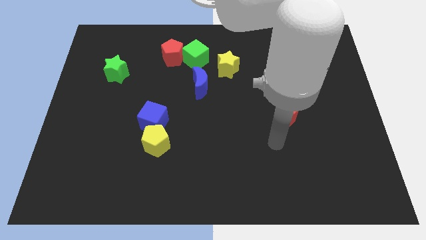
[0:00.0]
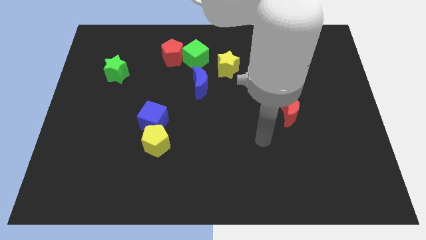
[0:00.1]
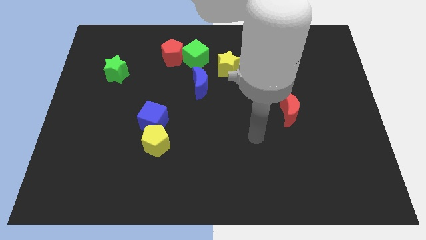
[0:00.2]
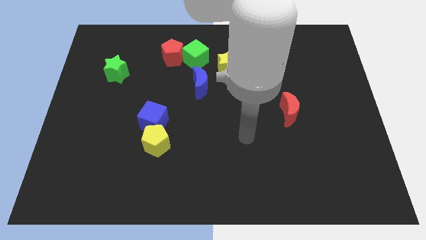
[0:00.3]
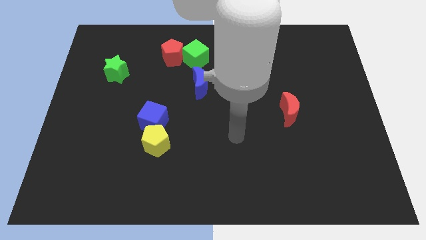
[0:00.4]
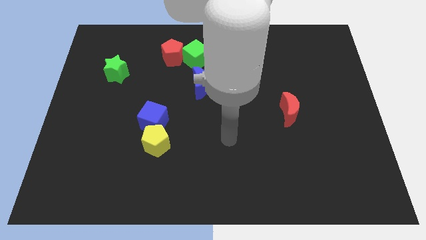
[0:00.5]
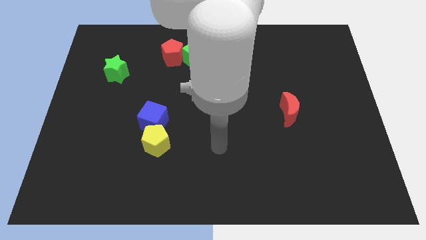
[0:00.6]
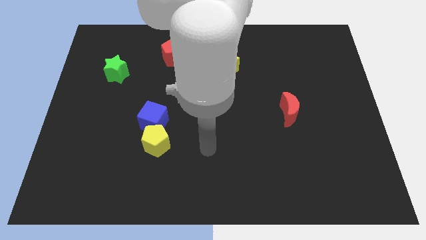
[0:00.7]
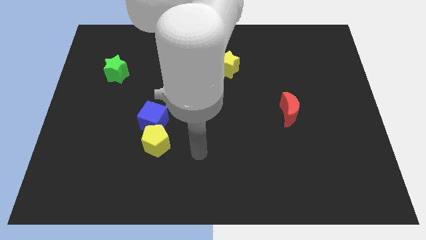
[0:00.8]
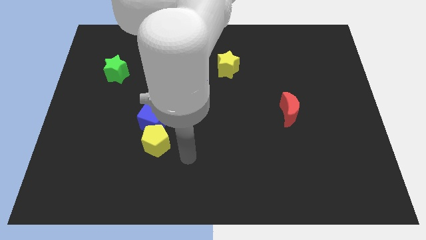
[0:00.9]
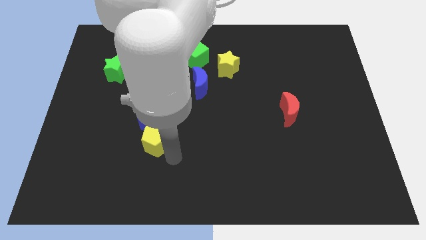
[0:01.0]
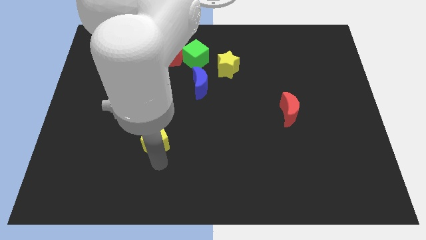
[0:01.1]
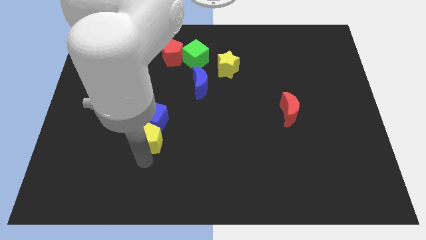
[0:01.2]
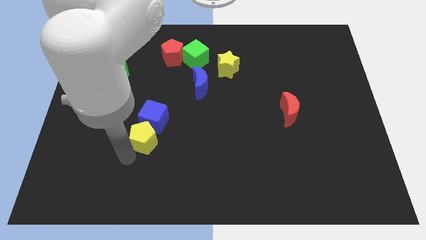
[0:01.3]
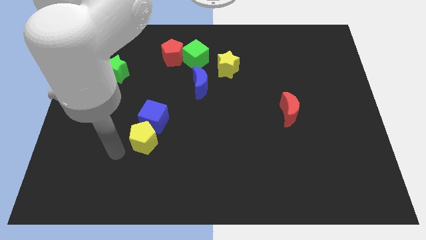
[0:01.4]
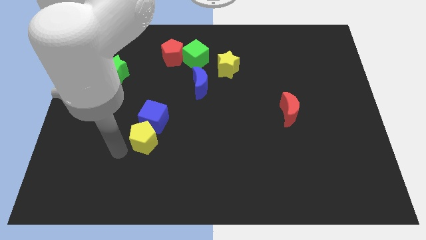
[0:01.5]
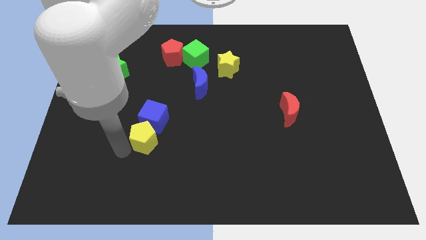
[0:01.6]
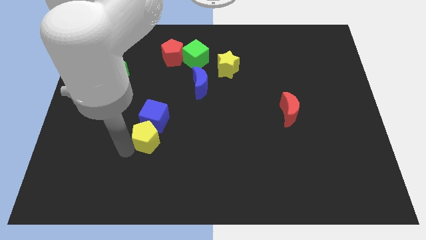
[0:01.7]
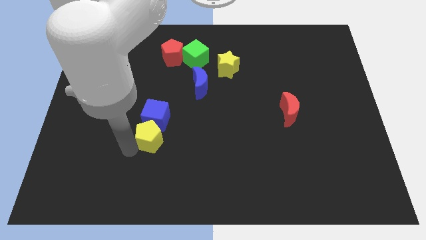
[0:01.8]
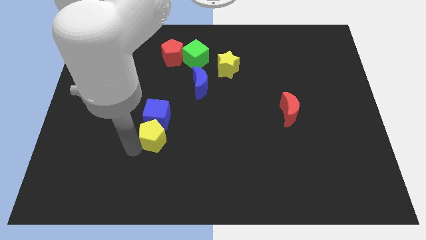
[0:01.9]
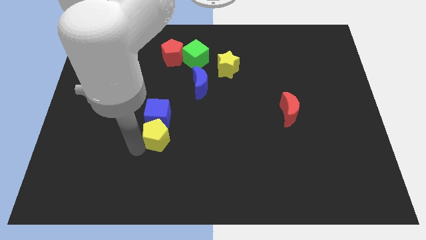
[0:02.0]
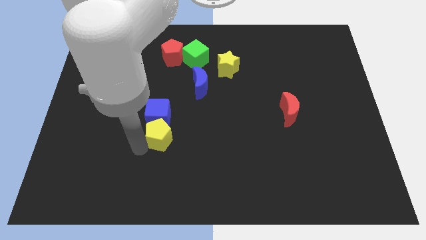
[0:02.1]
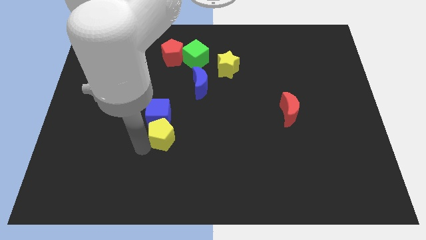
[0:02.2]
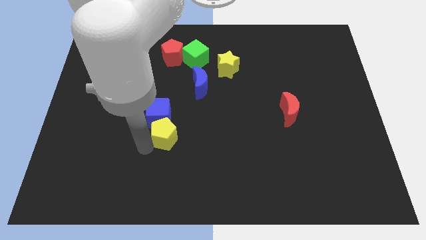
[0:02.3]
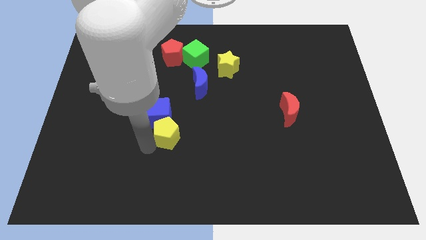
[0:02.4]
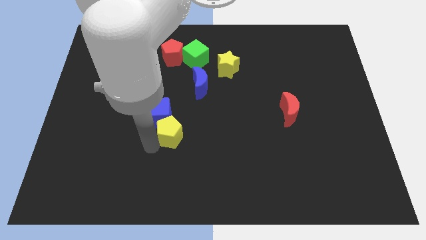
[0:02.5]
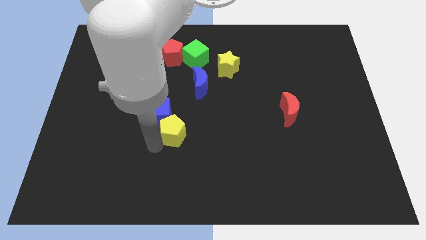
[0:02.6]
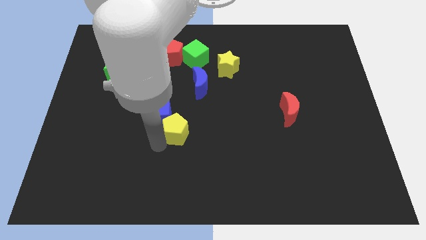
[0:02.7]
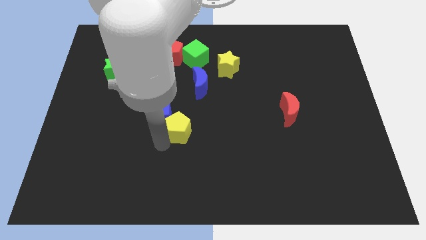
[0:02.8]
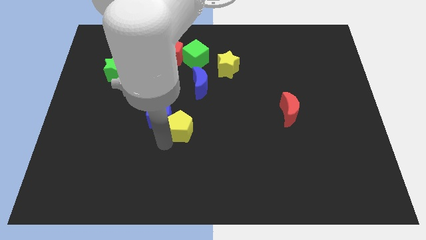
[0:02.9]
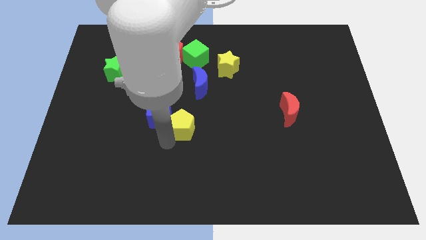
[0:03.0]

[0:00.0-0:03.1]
slide the yellow pentagon a little bit up and then right

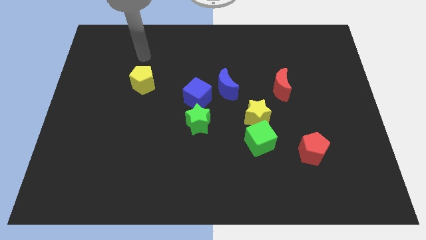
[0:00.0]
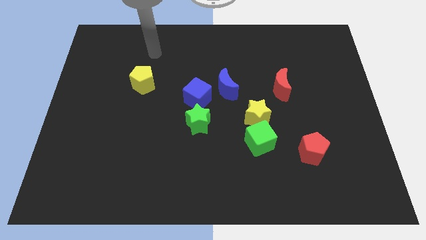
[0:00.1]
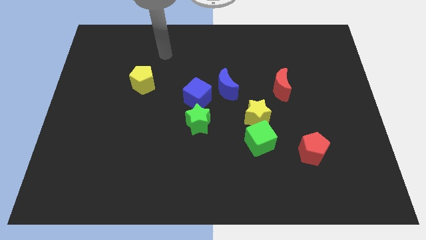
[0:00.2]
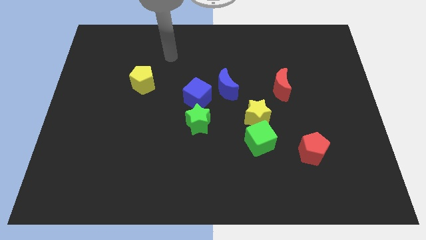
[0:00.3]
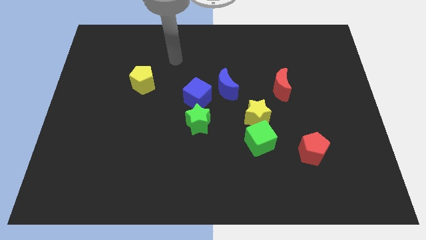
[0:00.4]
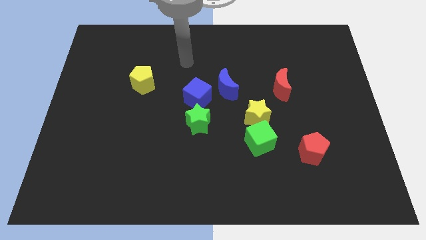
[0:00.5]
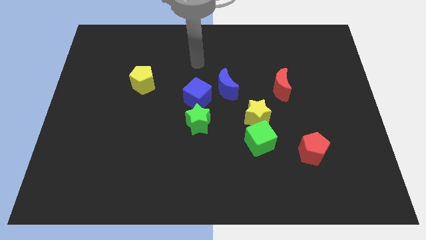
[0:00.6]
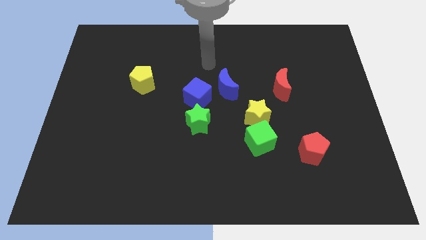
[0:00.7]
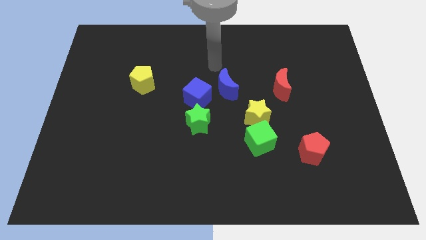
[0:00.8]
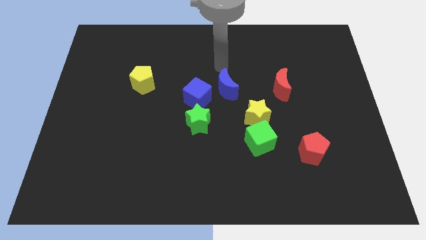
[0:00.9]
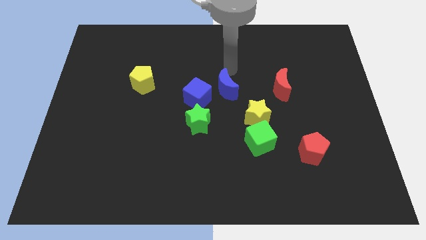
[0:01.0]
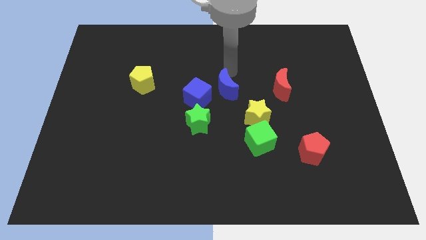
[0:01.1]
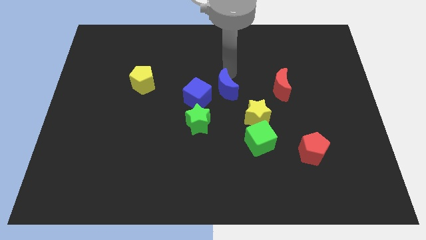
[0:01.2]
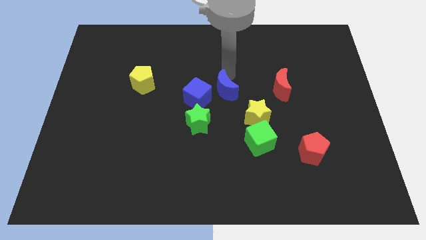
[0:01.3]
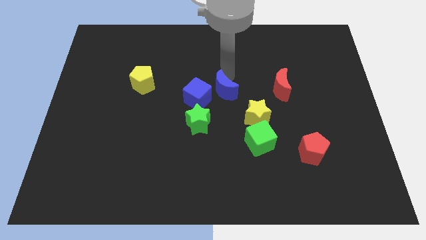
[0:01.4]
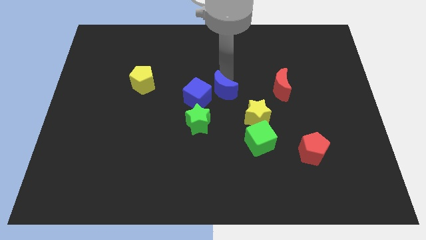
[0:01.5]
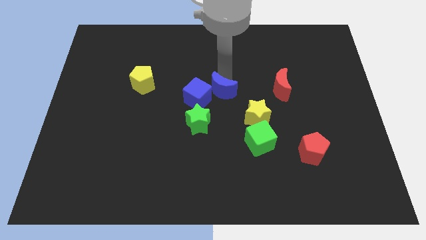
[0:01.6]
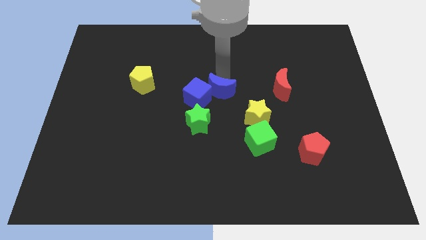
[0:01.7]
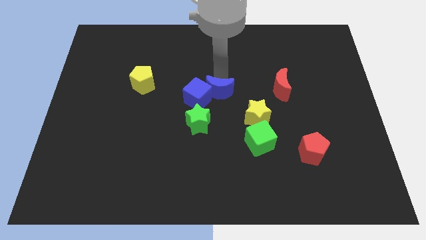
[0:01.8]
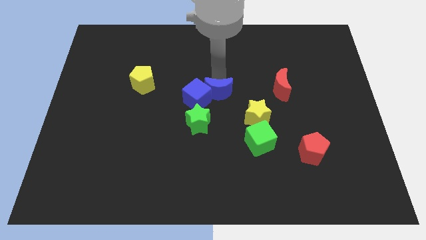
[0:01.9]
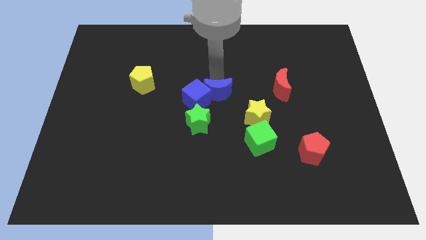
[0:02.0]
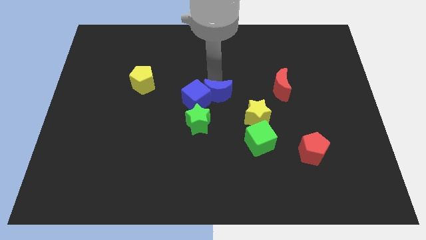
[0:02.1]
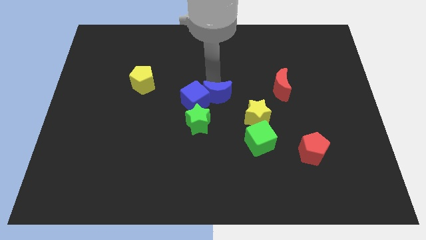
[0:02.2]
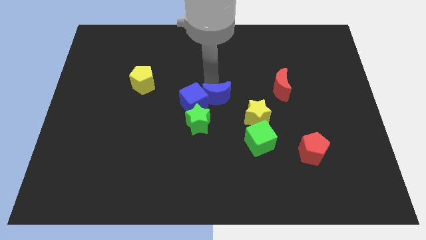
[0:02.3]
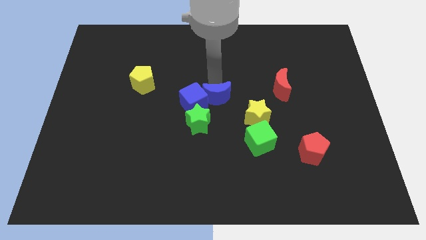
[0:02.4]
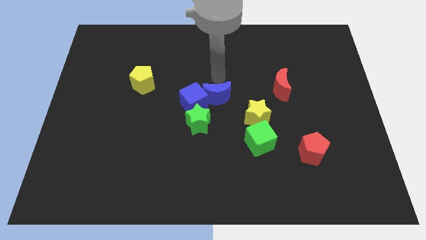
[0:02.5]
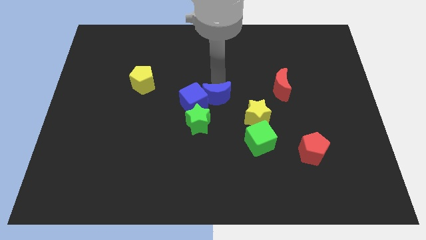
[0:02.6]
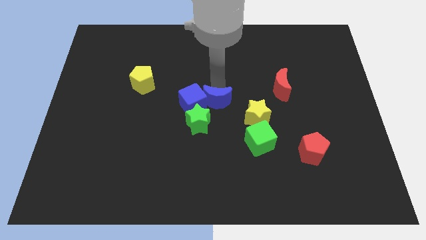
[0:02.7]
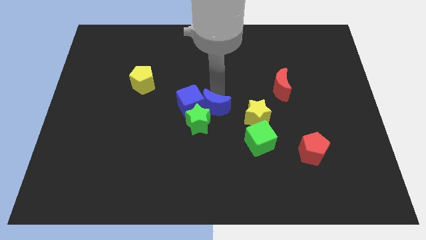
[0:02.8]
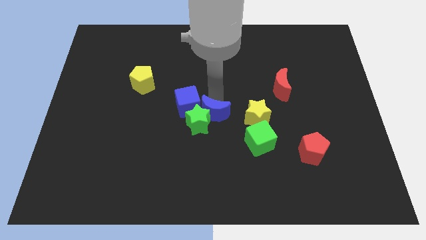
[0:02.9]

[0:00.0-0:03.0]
move the blue moon downwards and then to the left a bit

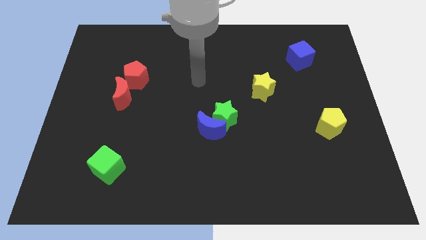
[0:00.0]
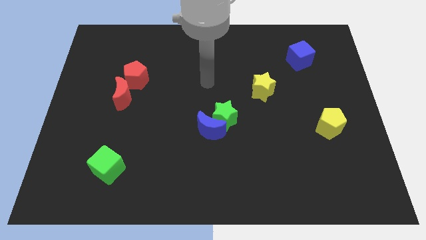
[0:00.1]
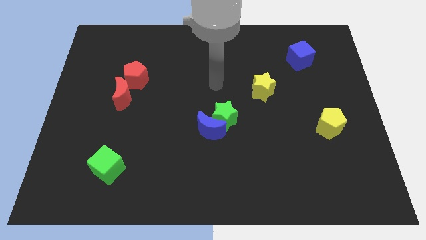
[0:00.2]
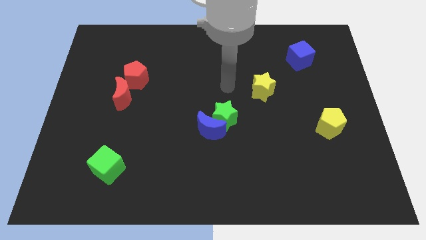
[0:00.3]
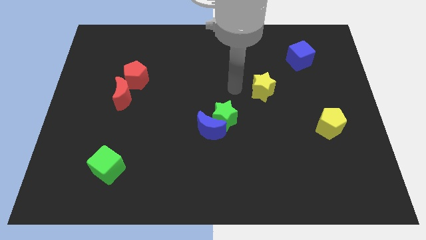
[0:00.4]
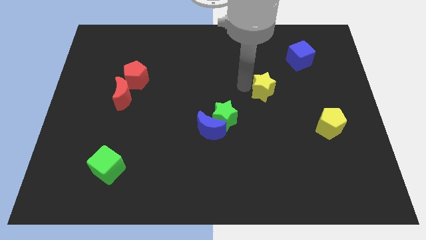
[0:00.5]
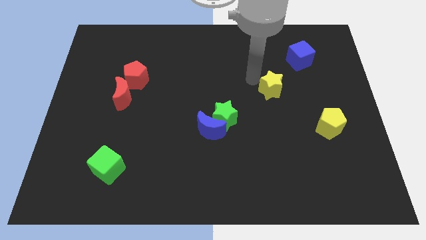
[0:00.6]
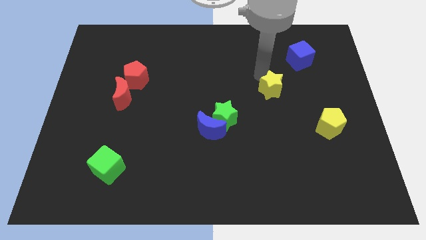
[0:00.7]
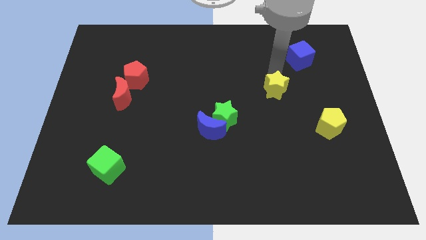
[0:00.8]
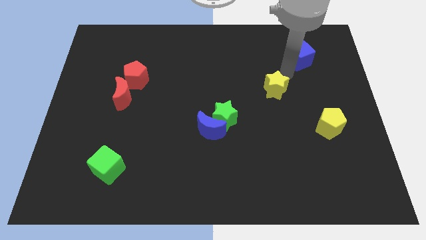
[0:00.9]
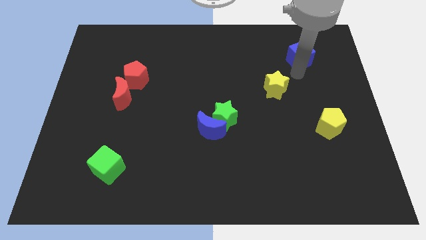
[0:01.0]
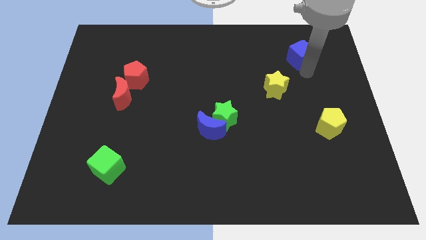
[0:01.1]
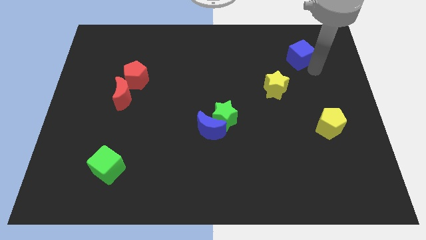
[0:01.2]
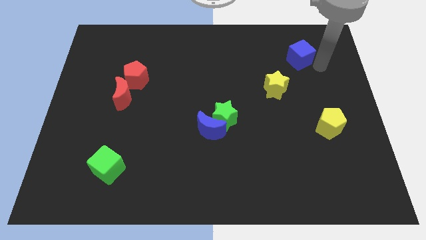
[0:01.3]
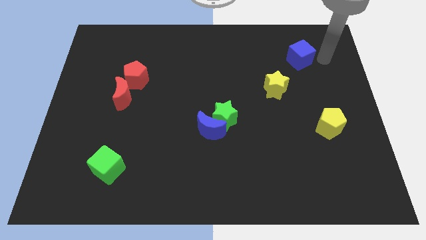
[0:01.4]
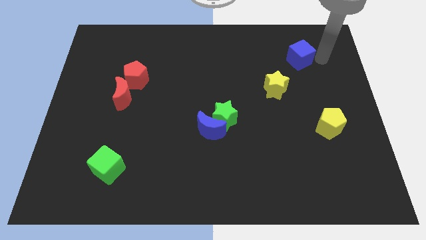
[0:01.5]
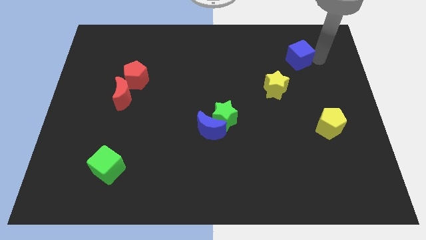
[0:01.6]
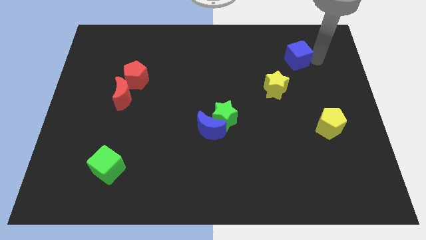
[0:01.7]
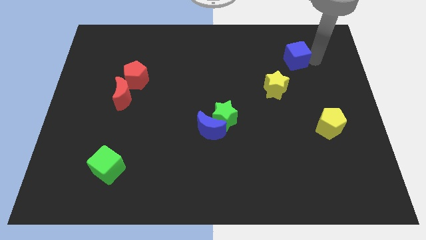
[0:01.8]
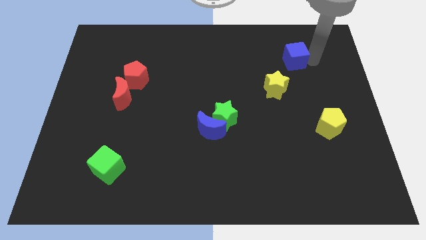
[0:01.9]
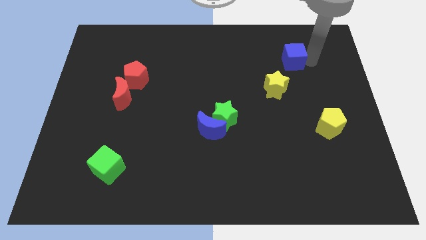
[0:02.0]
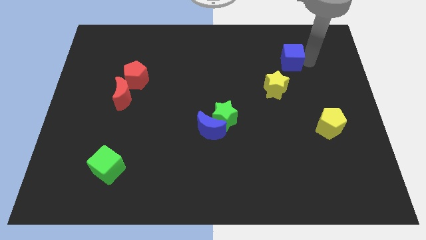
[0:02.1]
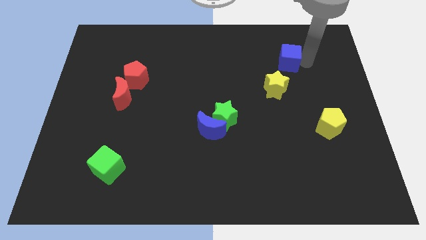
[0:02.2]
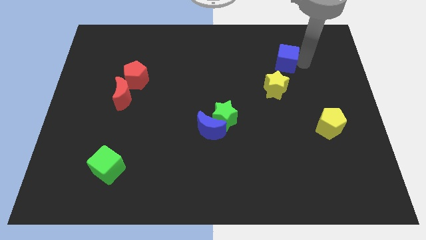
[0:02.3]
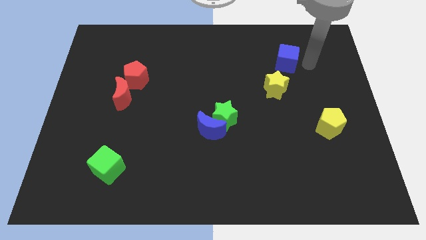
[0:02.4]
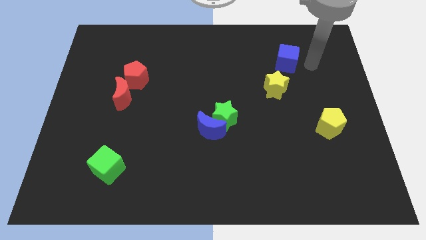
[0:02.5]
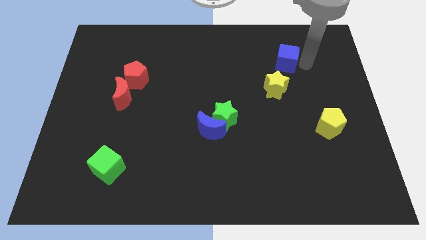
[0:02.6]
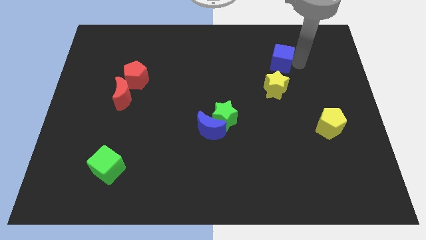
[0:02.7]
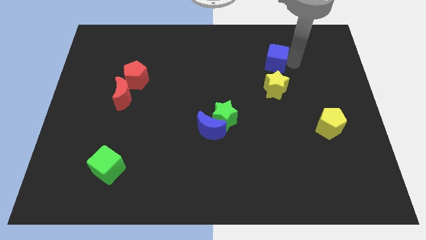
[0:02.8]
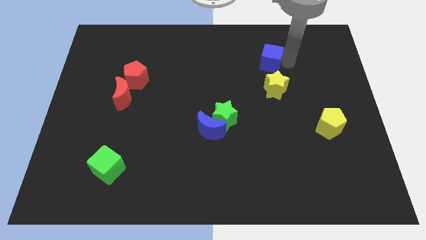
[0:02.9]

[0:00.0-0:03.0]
push the blue cube slightly to the left
